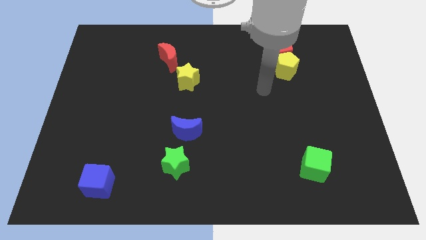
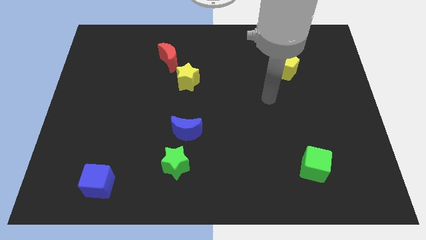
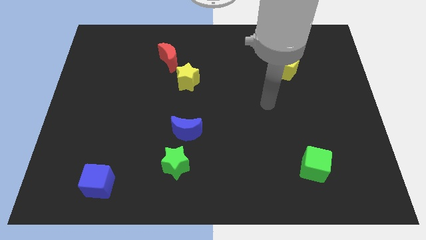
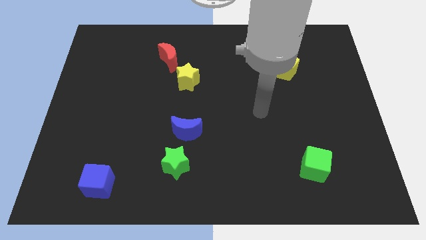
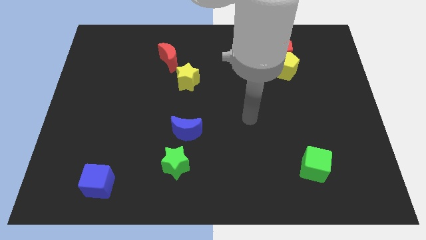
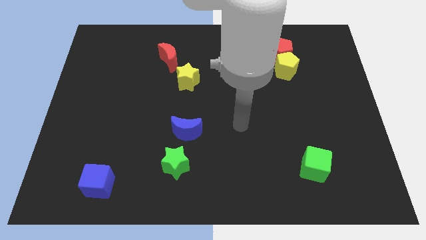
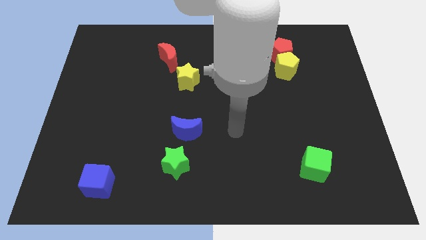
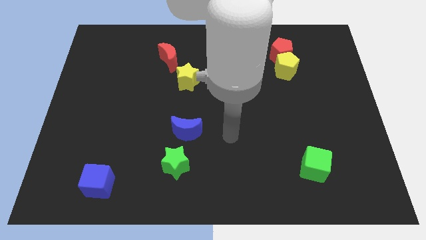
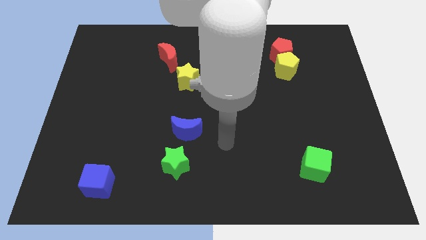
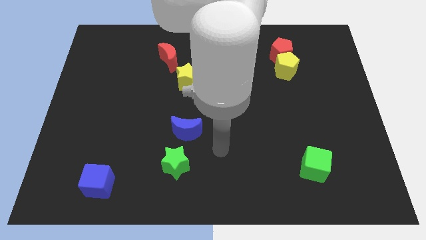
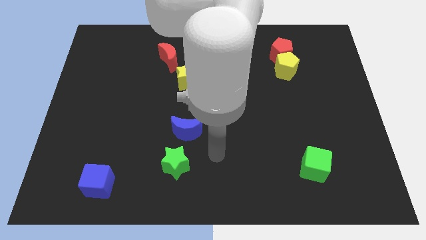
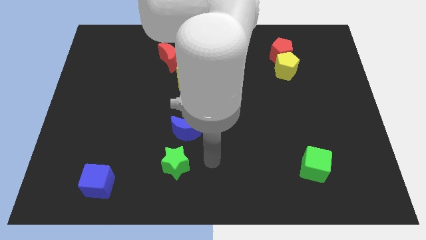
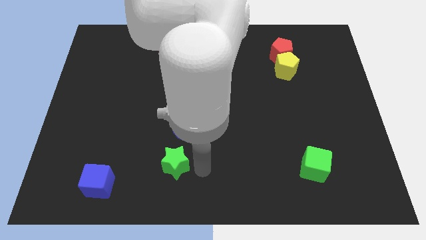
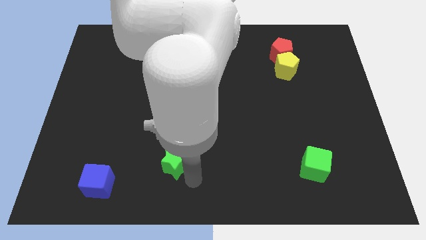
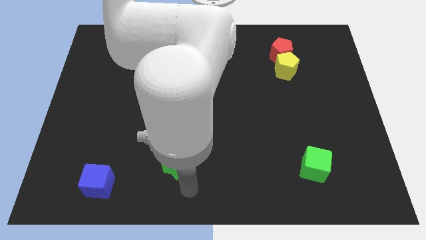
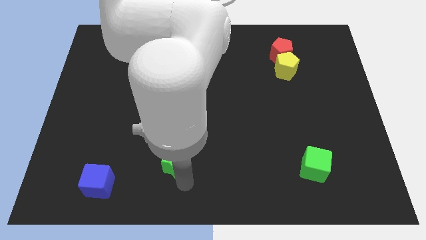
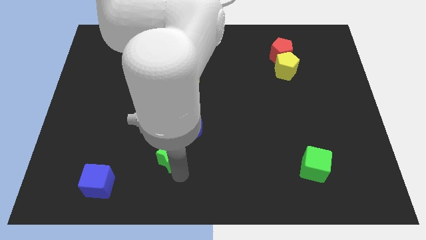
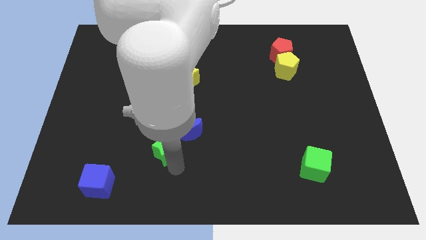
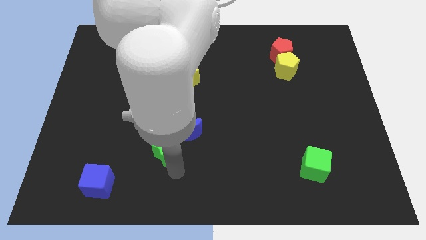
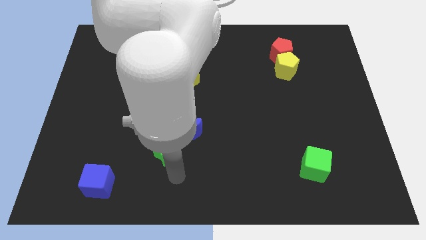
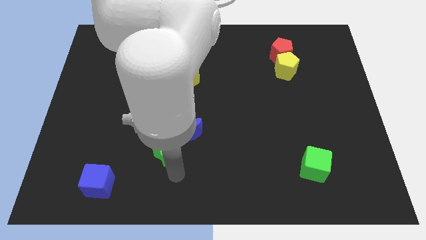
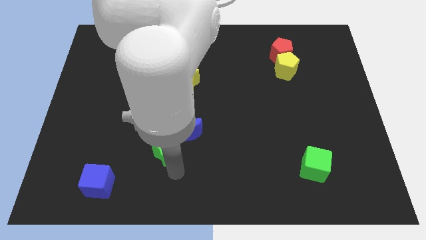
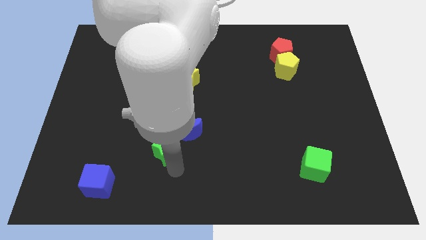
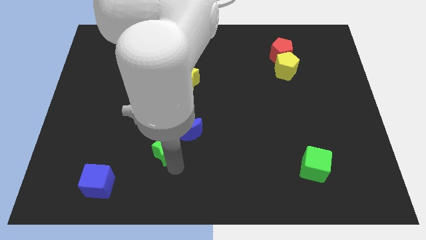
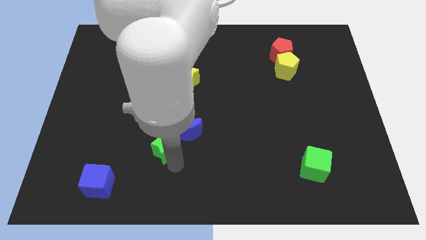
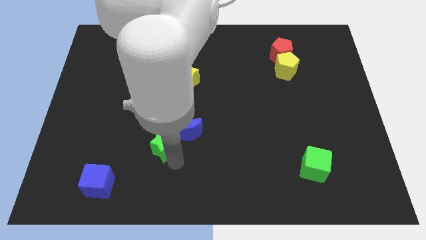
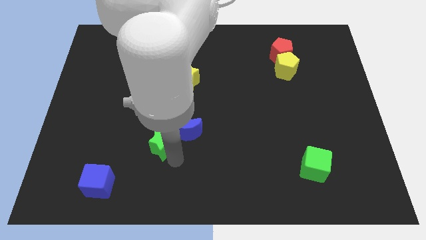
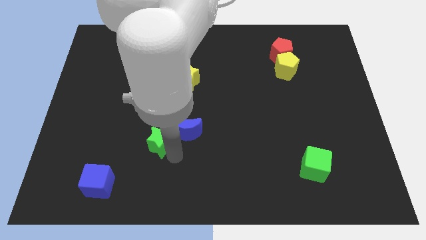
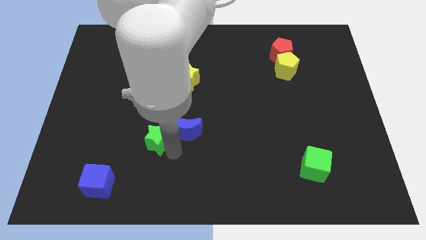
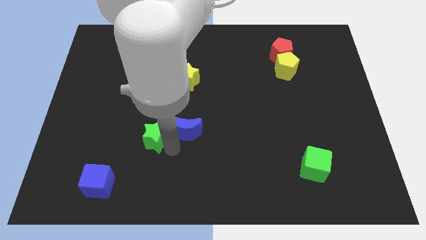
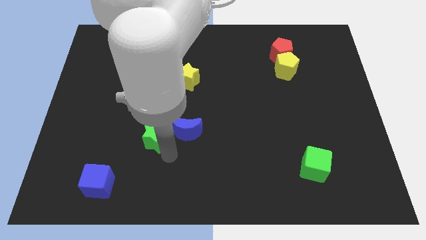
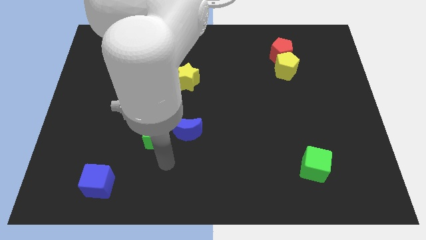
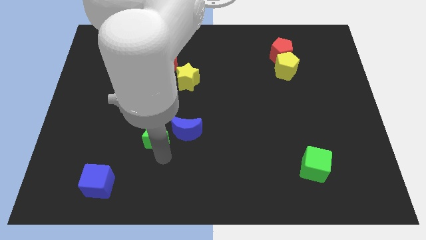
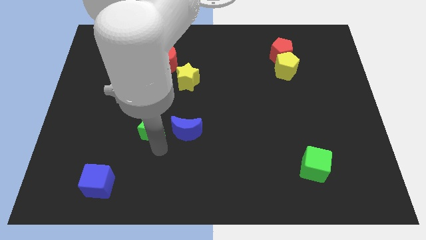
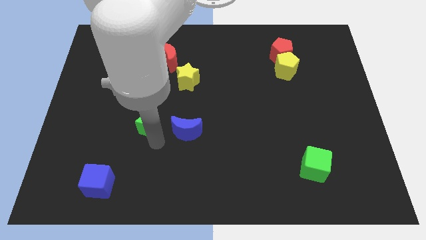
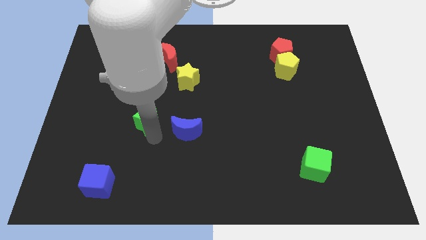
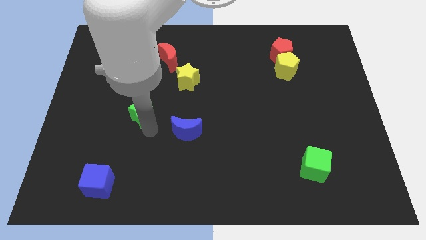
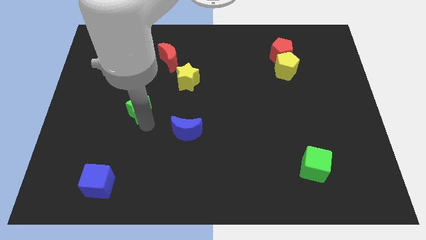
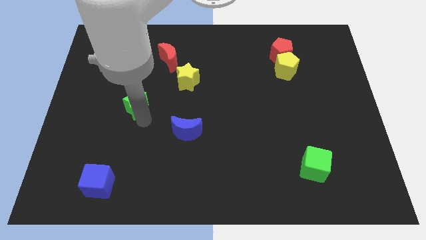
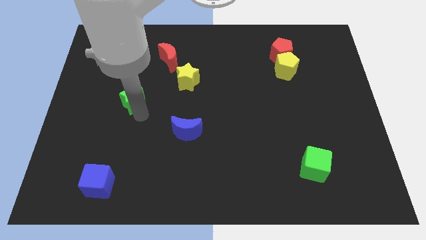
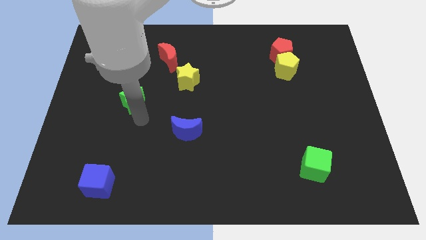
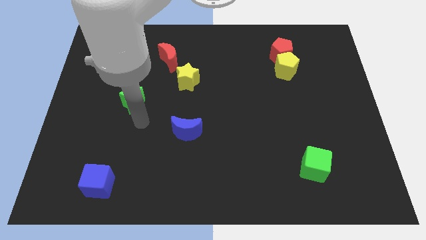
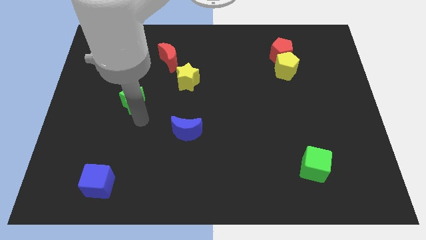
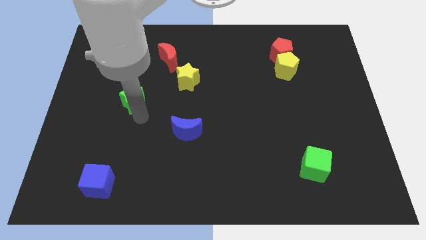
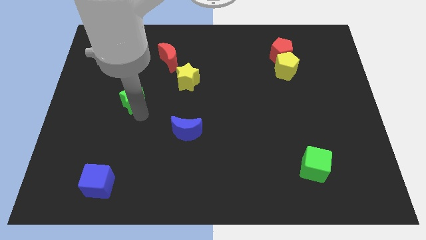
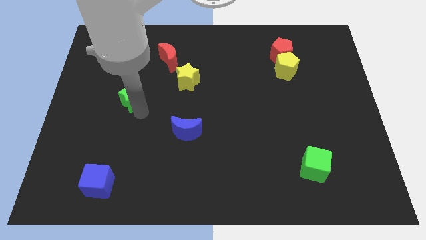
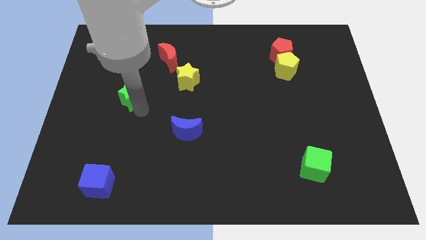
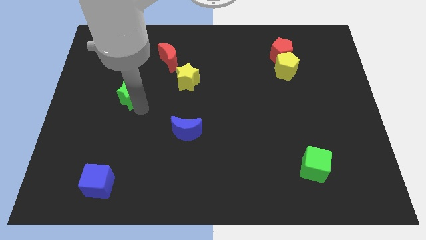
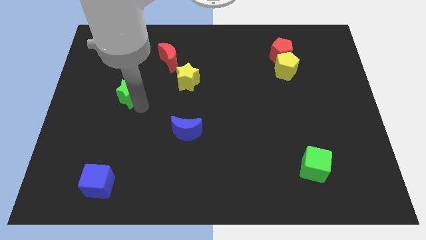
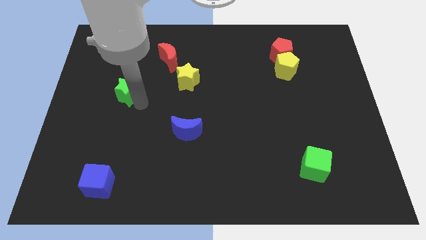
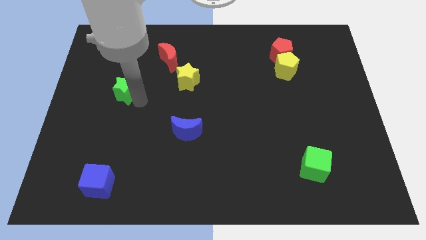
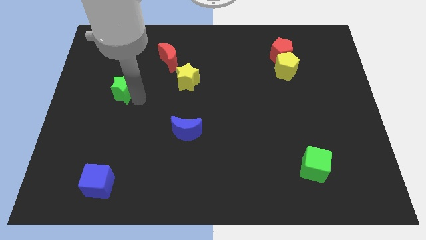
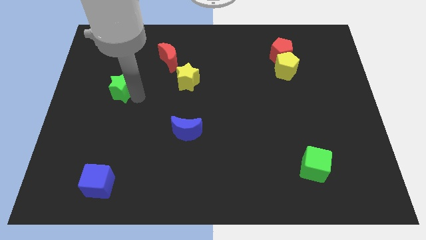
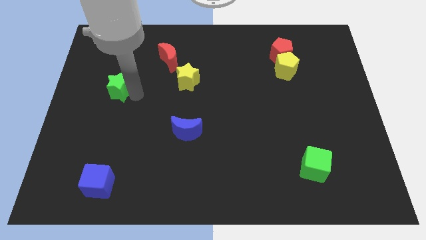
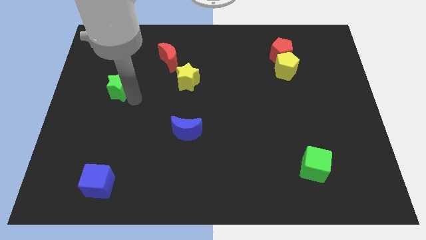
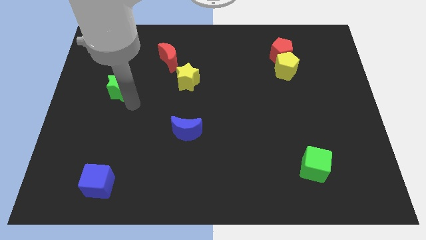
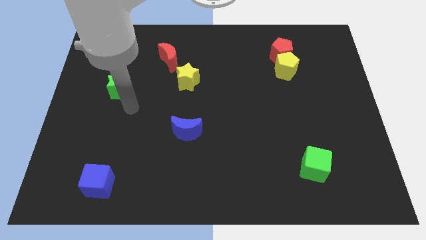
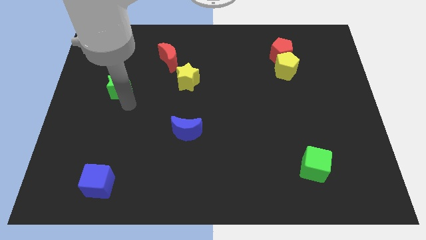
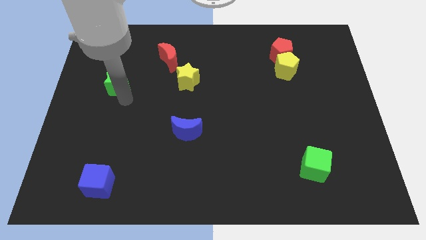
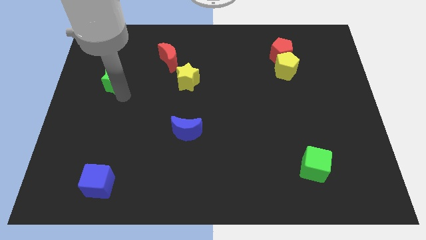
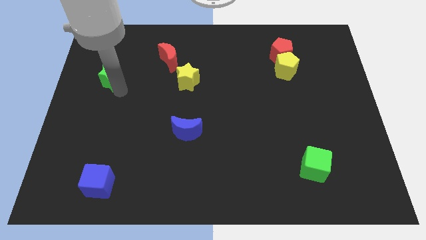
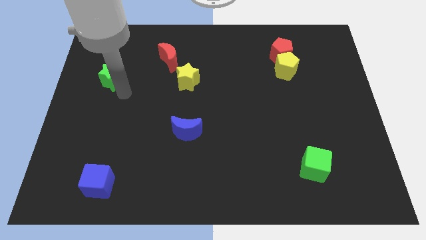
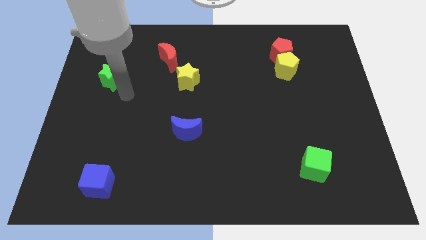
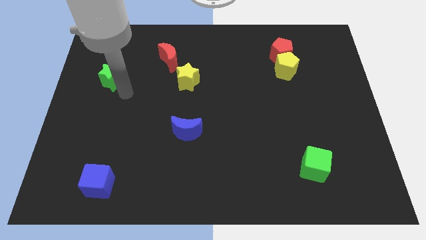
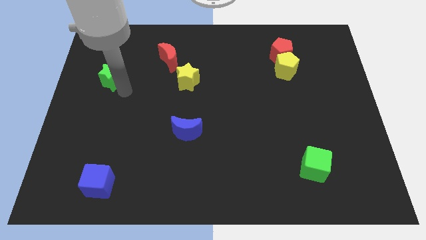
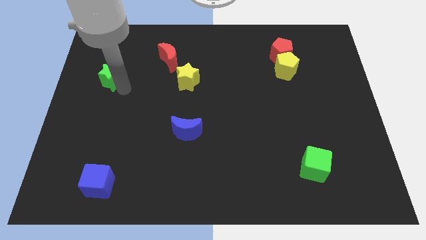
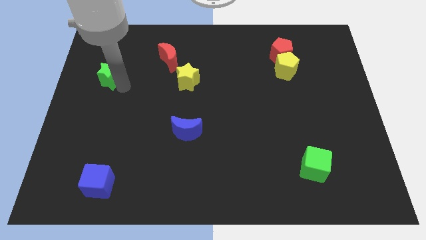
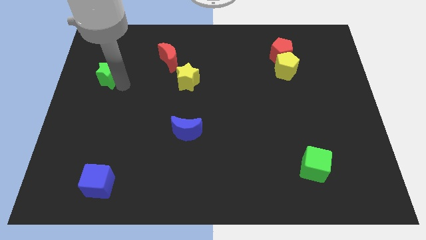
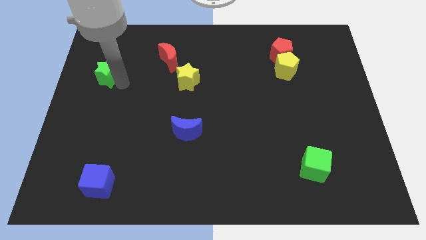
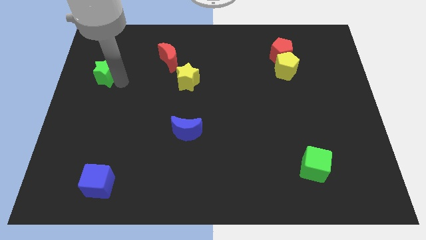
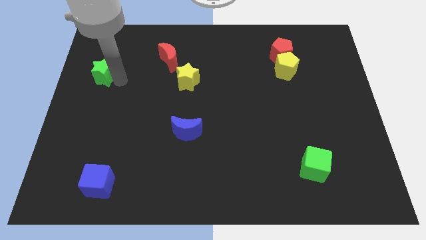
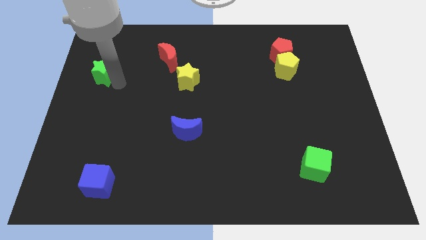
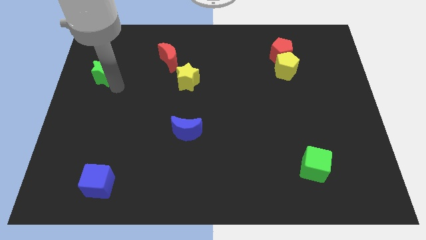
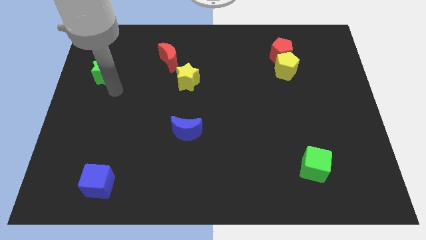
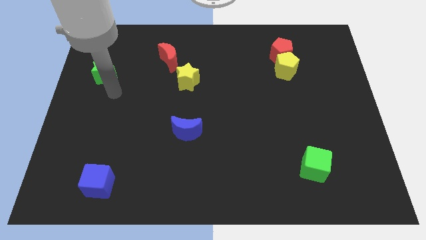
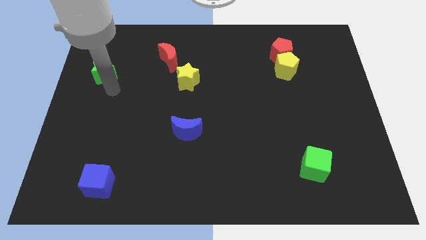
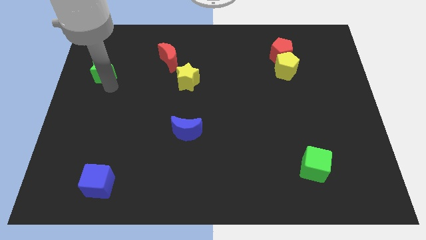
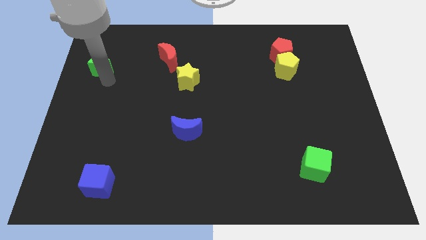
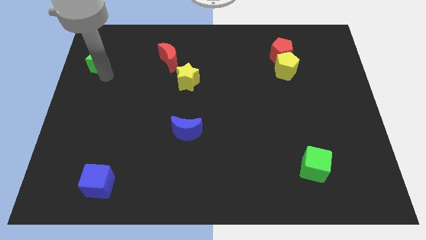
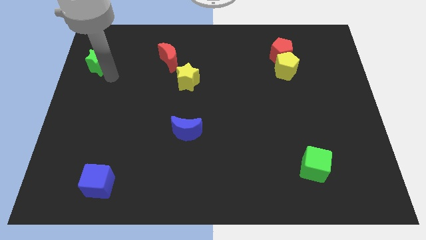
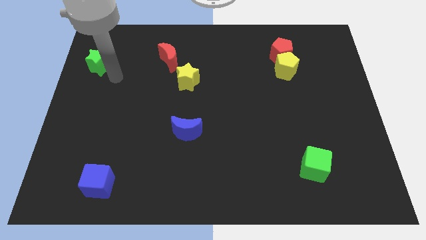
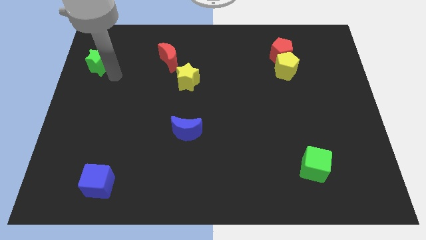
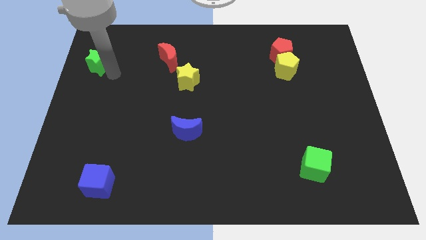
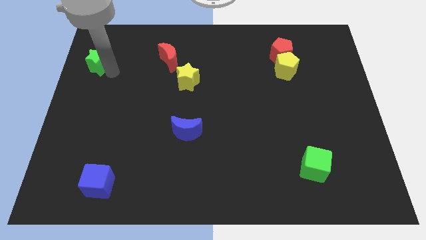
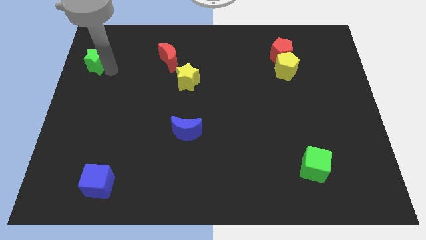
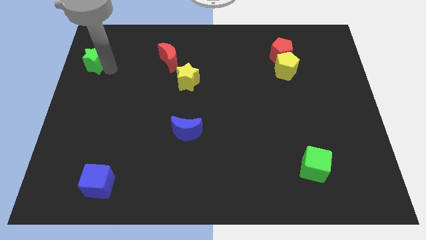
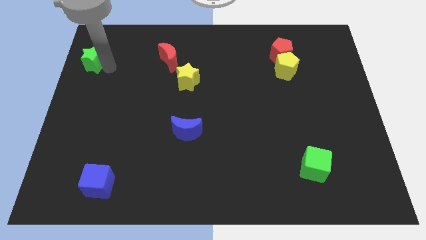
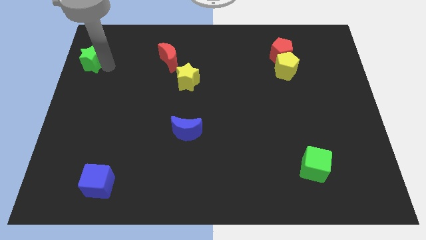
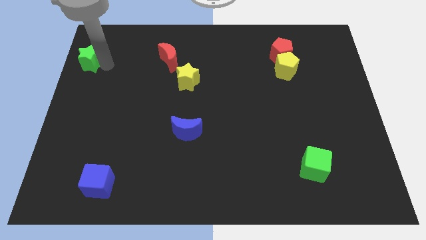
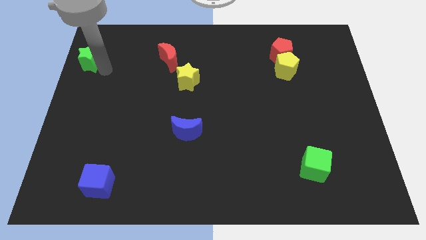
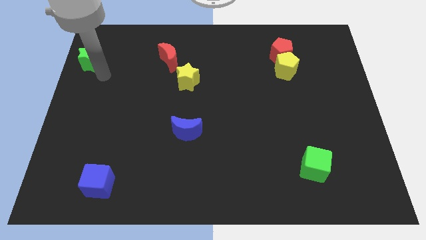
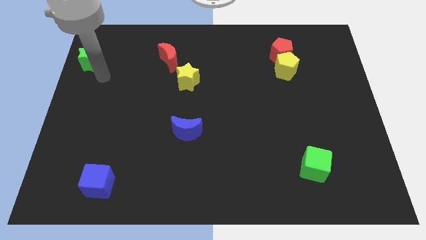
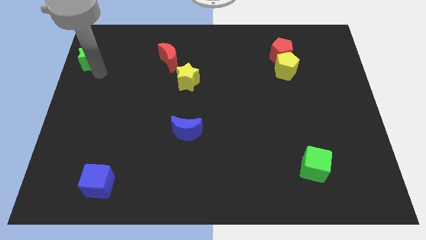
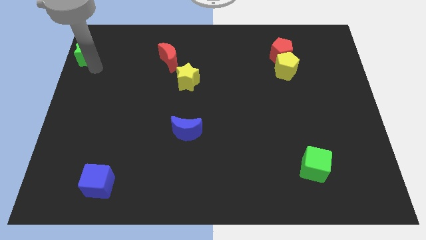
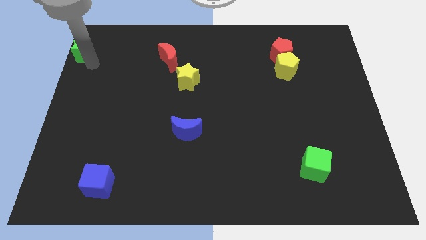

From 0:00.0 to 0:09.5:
move the green star to the top left of the board
